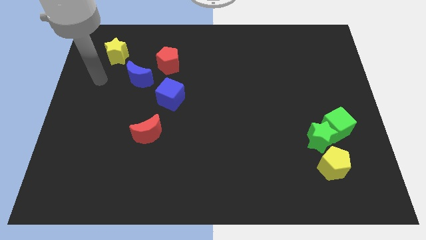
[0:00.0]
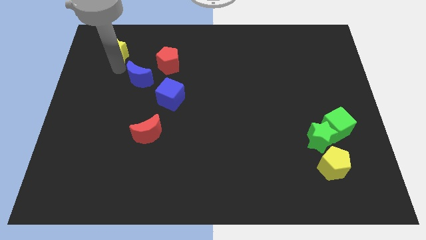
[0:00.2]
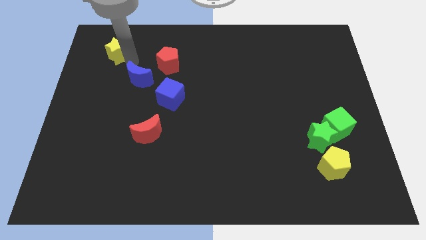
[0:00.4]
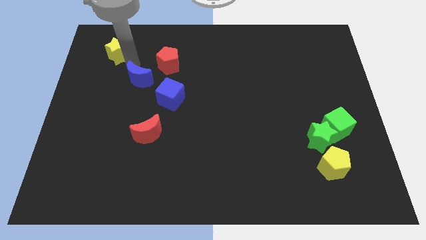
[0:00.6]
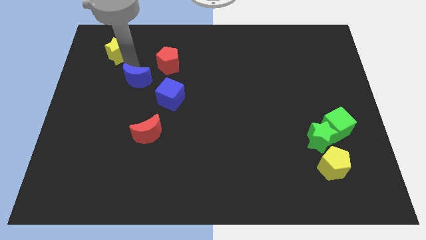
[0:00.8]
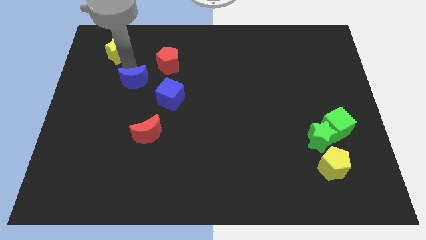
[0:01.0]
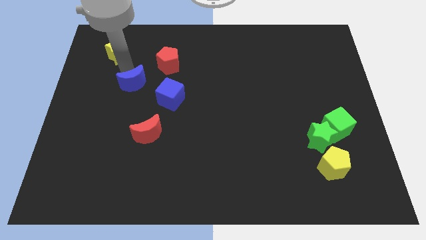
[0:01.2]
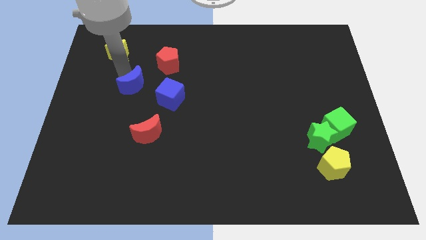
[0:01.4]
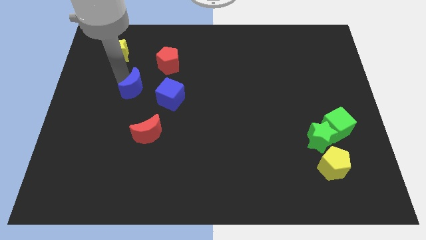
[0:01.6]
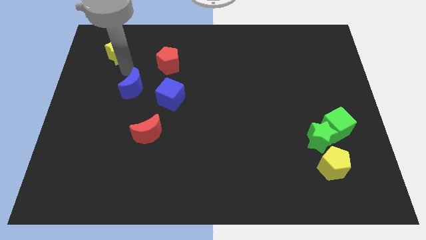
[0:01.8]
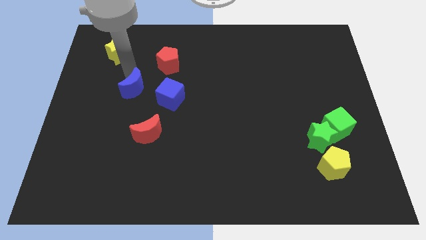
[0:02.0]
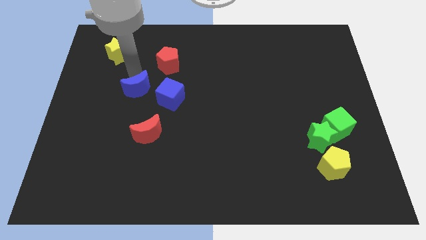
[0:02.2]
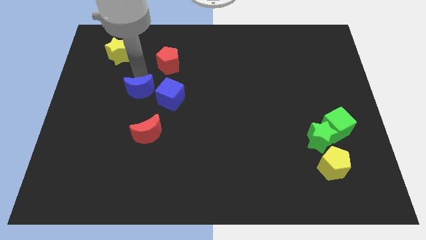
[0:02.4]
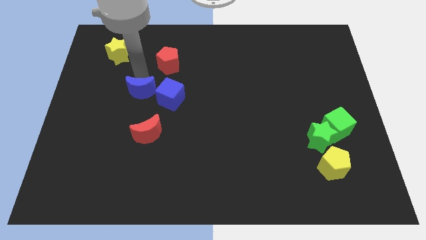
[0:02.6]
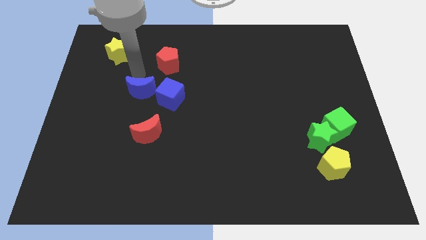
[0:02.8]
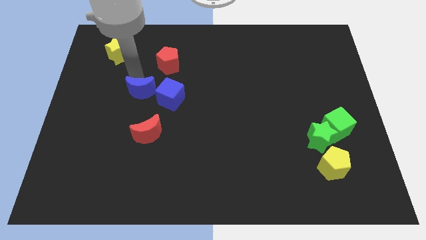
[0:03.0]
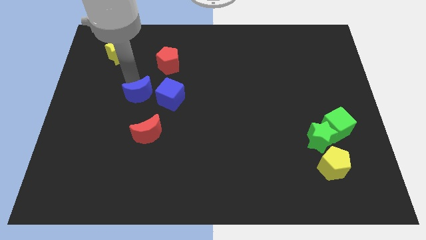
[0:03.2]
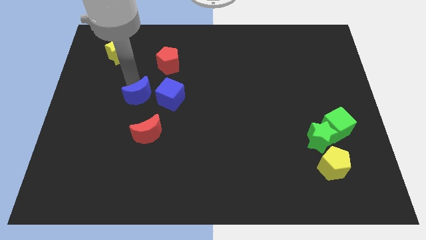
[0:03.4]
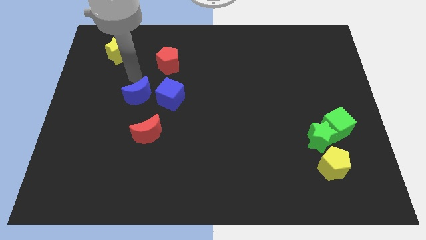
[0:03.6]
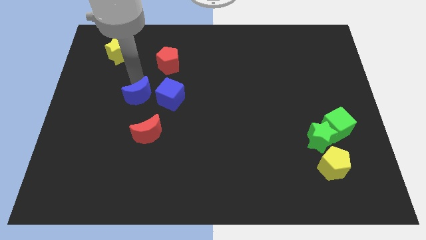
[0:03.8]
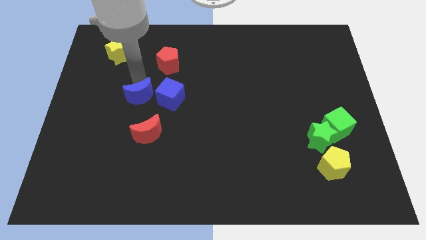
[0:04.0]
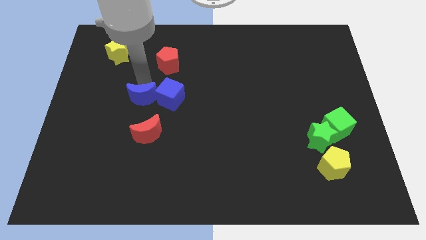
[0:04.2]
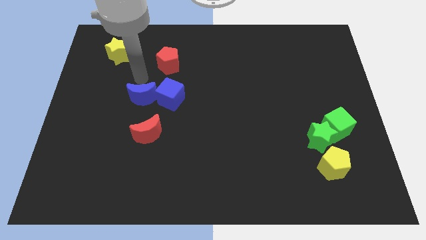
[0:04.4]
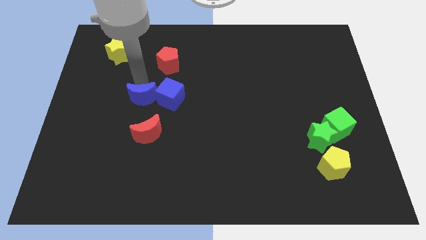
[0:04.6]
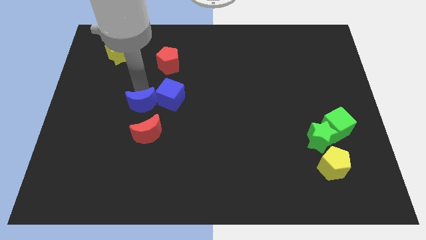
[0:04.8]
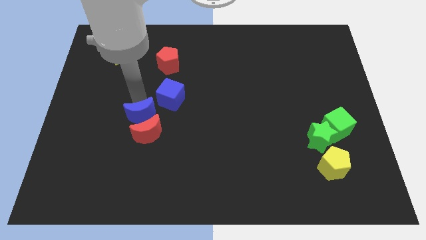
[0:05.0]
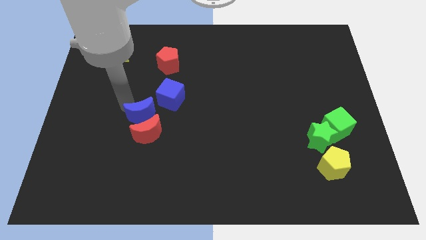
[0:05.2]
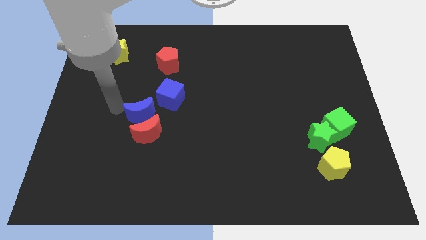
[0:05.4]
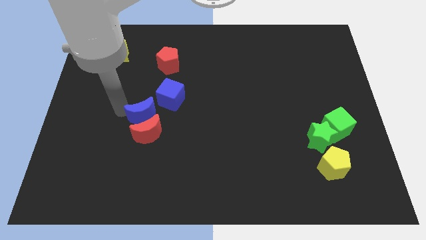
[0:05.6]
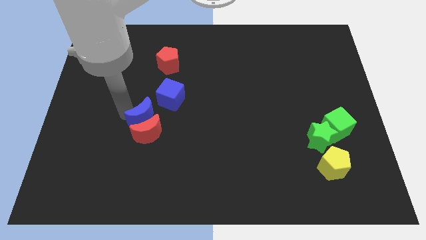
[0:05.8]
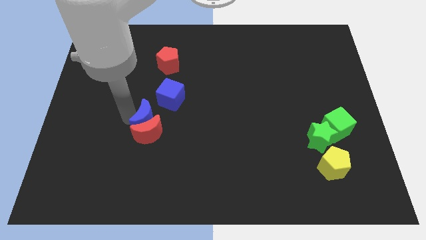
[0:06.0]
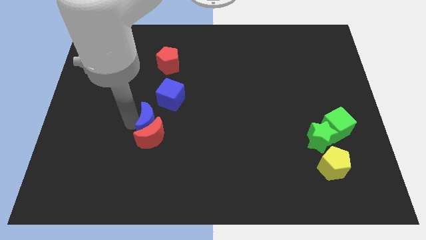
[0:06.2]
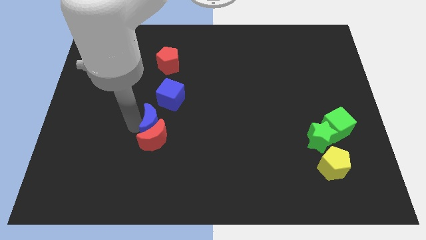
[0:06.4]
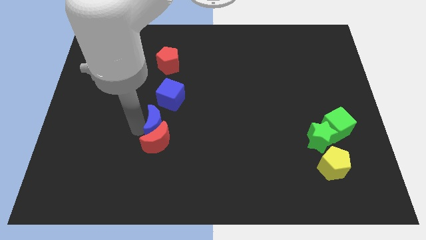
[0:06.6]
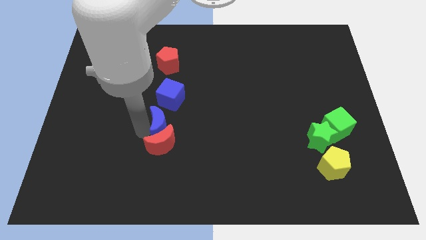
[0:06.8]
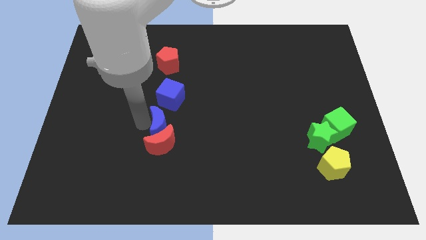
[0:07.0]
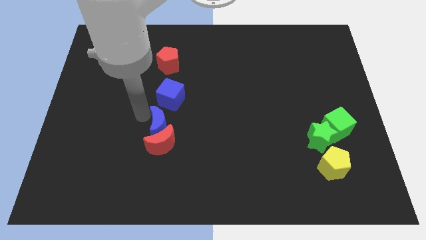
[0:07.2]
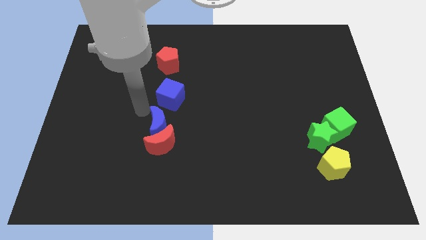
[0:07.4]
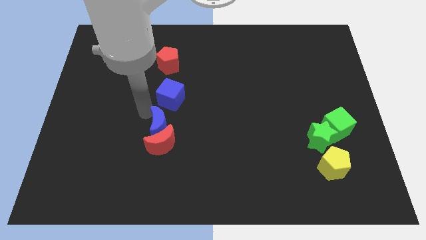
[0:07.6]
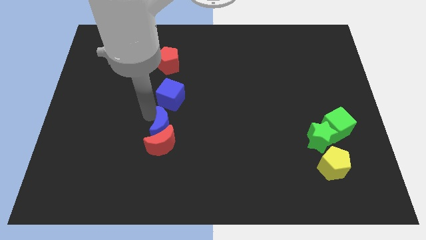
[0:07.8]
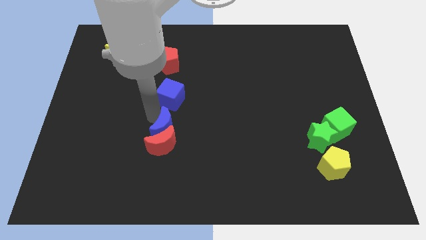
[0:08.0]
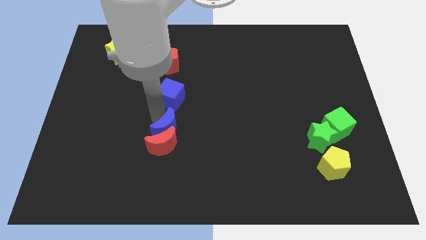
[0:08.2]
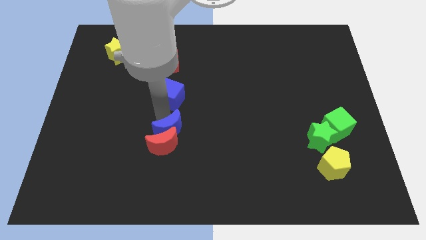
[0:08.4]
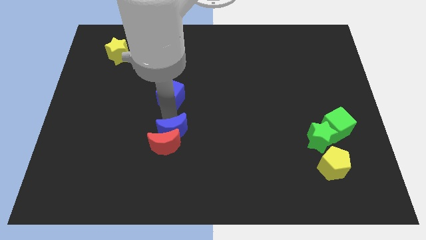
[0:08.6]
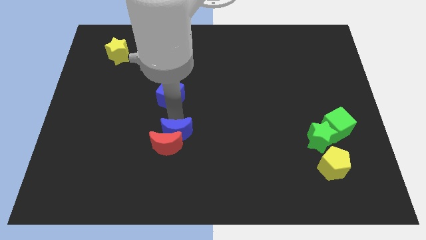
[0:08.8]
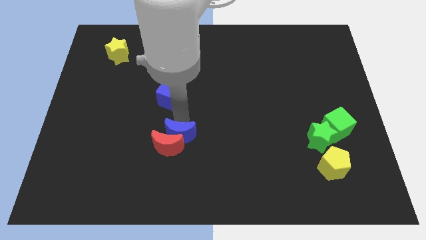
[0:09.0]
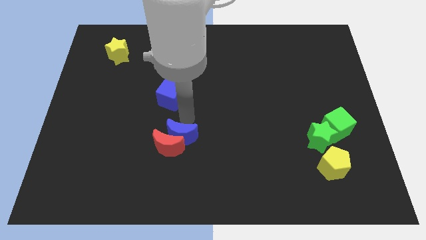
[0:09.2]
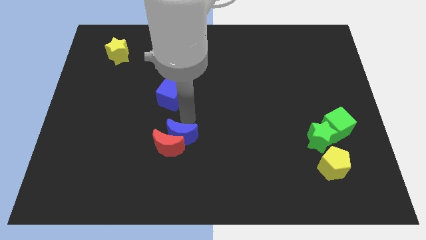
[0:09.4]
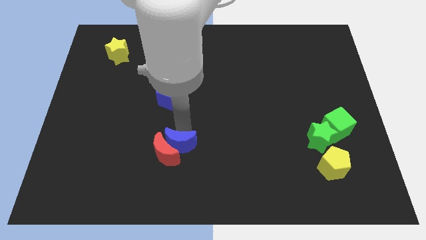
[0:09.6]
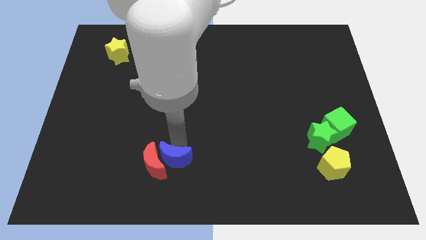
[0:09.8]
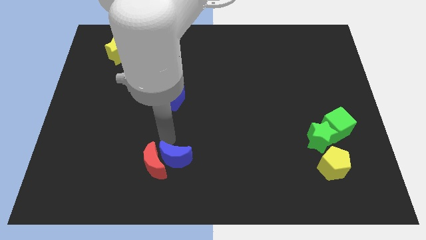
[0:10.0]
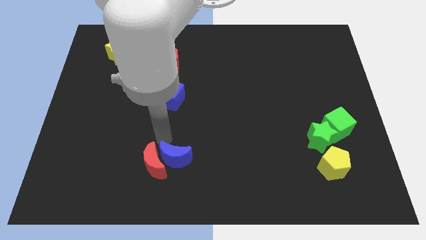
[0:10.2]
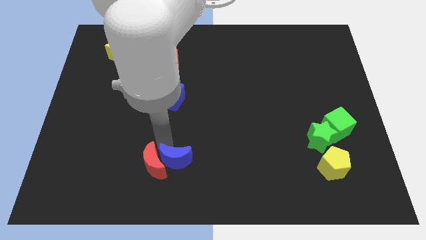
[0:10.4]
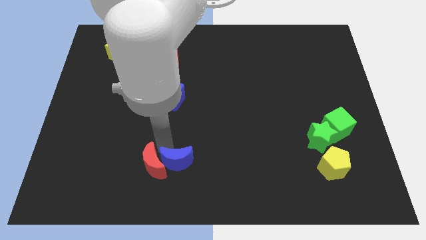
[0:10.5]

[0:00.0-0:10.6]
push the blue moon to the bottom side

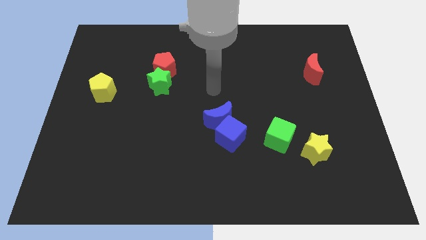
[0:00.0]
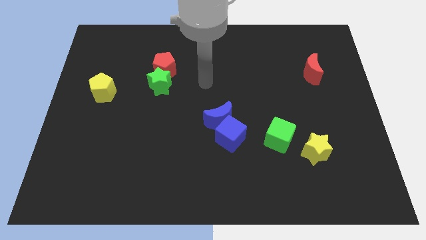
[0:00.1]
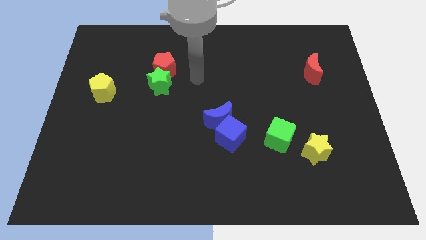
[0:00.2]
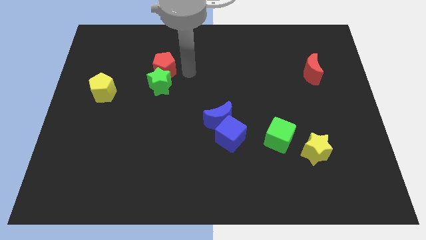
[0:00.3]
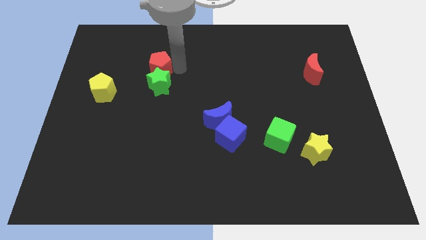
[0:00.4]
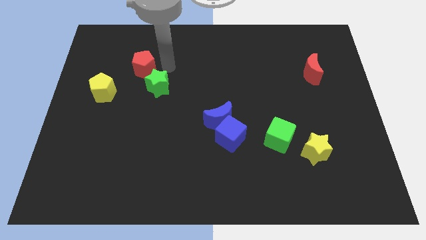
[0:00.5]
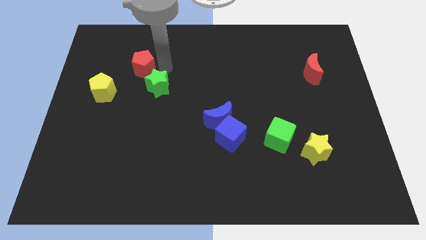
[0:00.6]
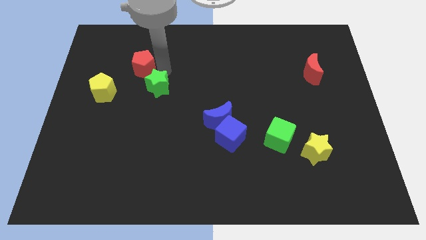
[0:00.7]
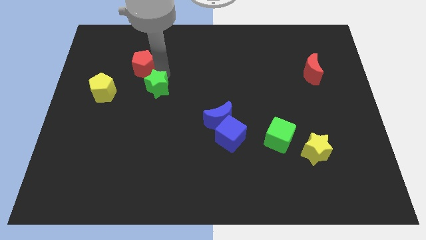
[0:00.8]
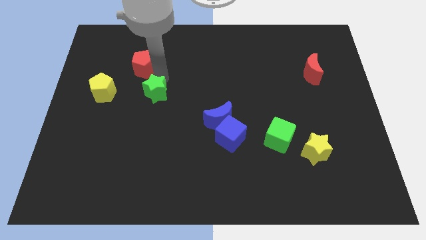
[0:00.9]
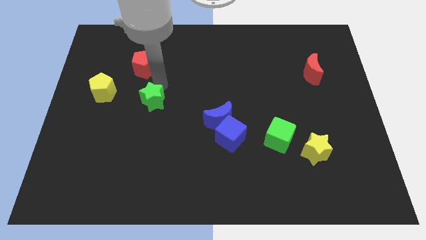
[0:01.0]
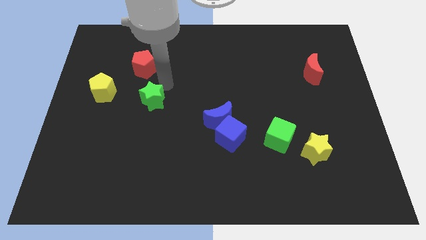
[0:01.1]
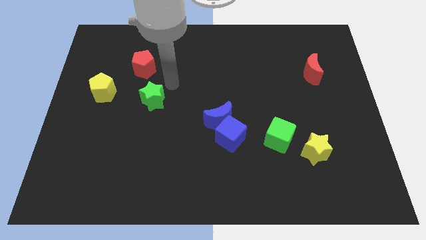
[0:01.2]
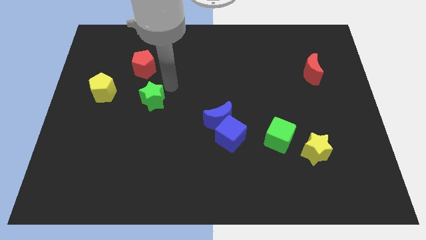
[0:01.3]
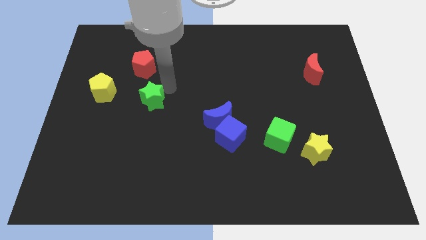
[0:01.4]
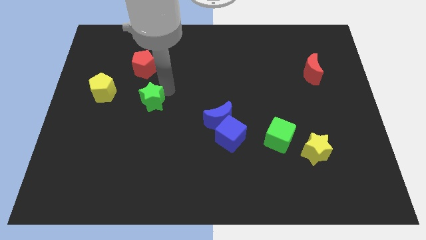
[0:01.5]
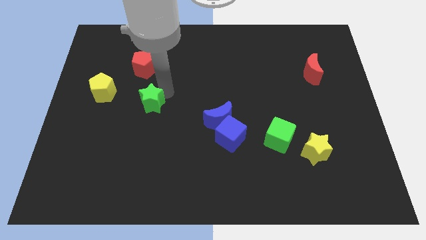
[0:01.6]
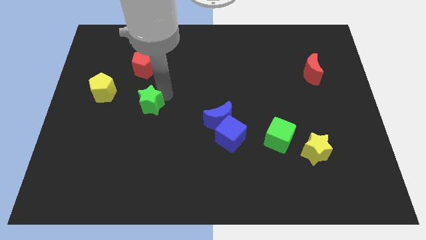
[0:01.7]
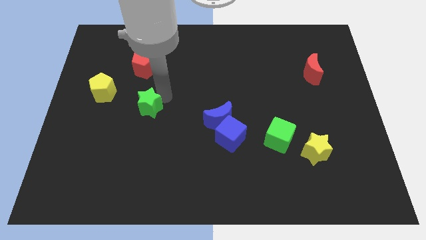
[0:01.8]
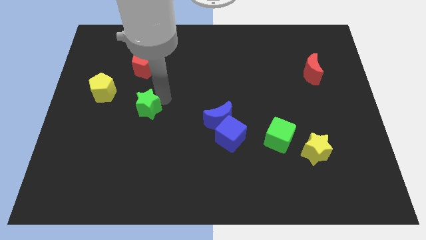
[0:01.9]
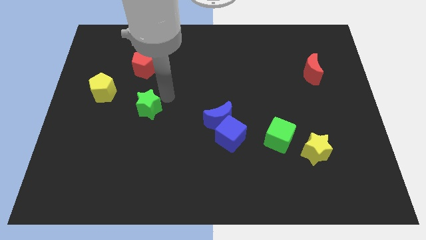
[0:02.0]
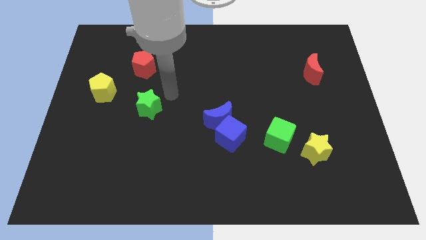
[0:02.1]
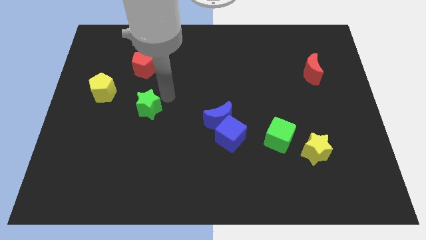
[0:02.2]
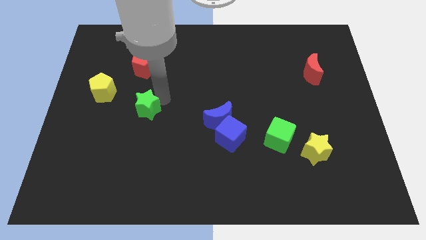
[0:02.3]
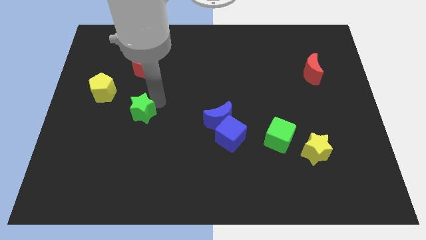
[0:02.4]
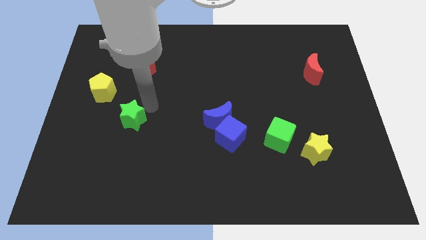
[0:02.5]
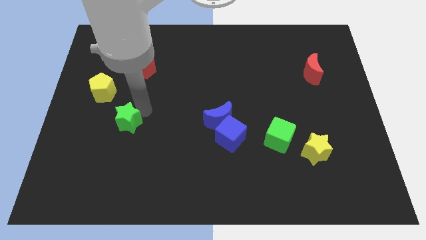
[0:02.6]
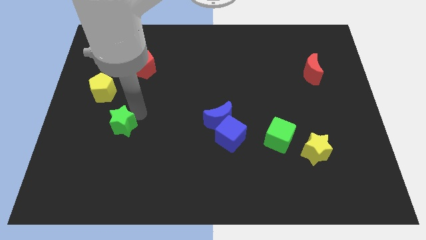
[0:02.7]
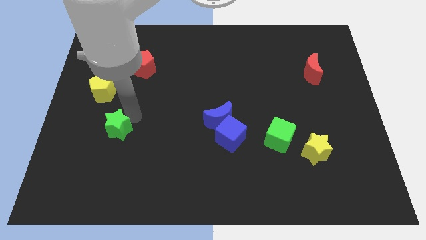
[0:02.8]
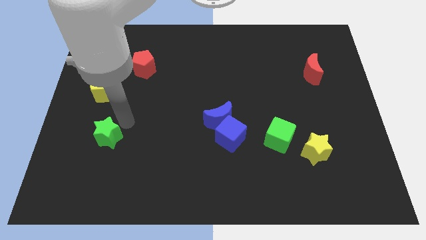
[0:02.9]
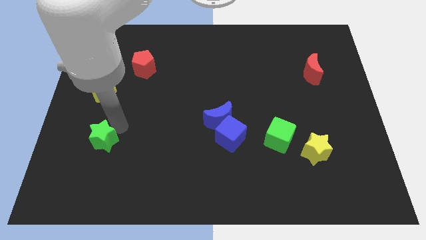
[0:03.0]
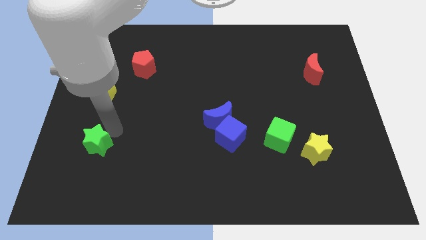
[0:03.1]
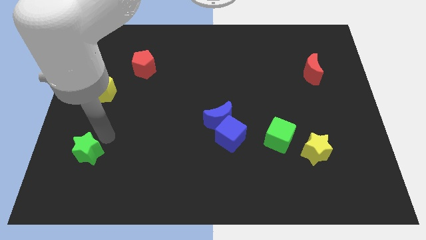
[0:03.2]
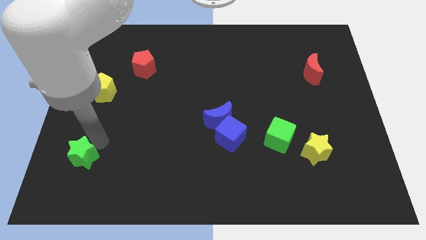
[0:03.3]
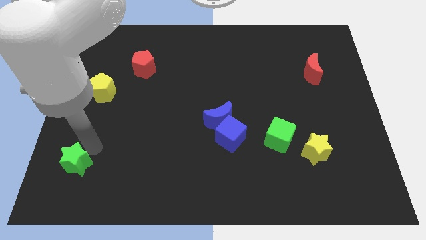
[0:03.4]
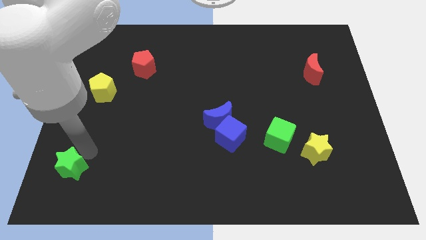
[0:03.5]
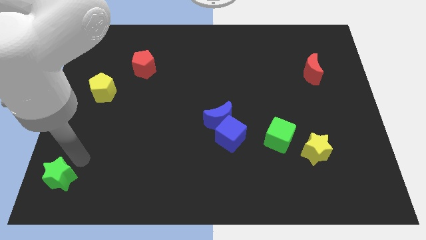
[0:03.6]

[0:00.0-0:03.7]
move the green star to the bottom left of the board
